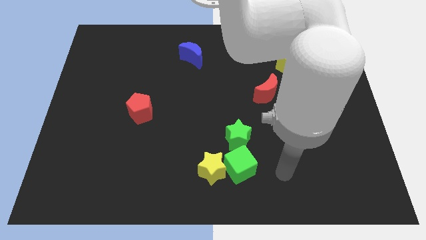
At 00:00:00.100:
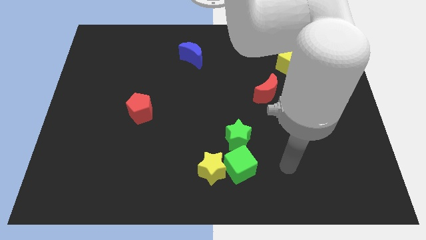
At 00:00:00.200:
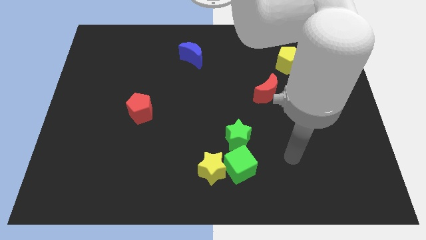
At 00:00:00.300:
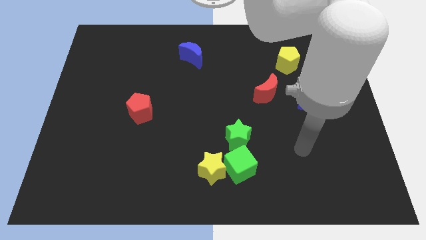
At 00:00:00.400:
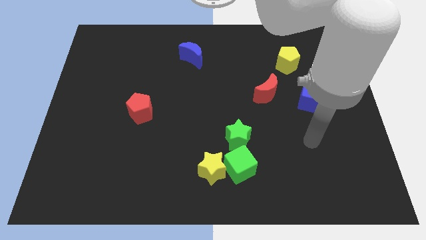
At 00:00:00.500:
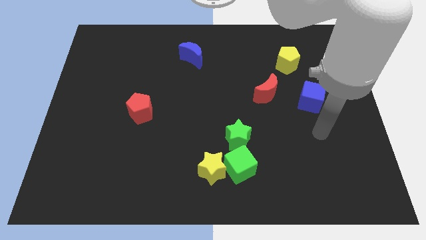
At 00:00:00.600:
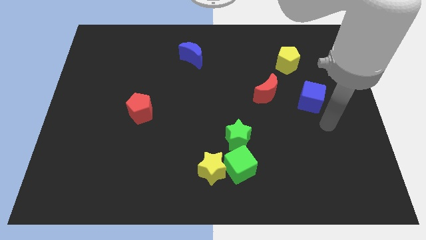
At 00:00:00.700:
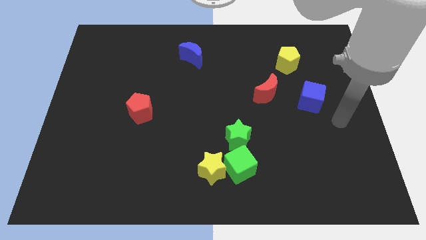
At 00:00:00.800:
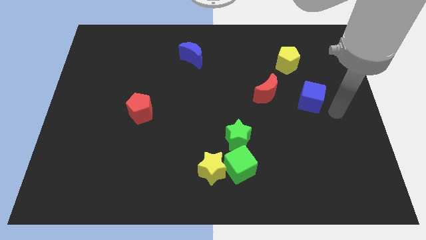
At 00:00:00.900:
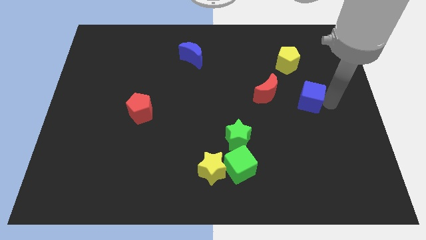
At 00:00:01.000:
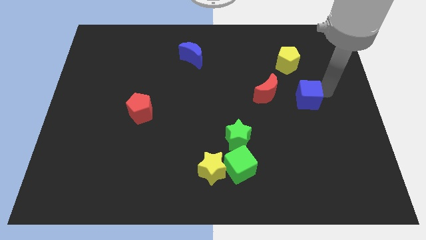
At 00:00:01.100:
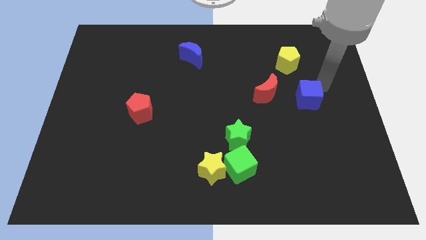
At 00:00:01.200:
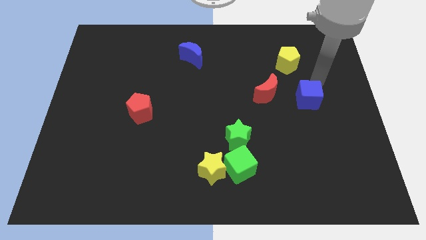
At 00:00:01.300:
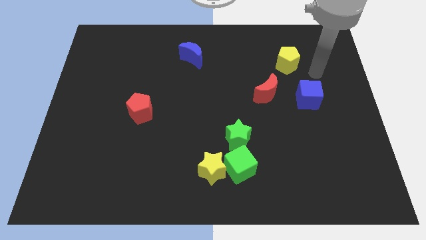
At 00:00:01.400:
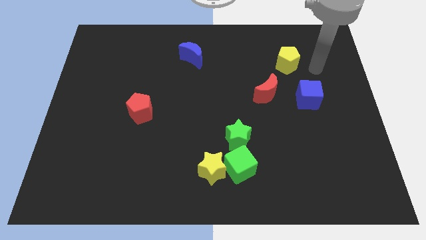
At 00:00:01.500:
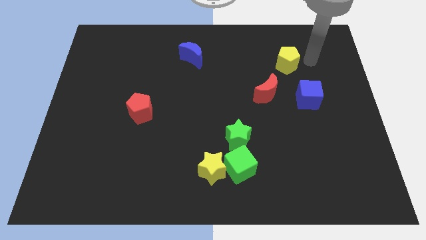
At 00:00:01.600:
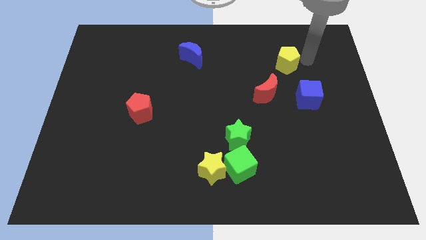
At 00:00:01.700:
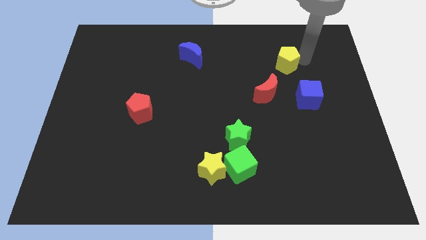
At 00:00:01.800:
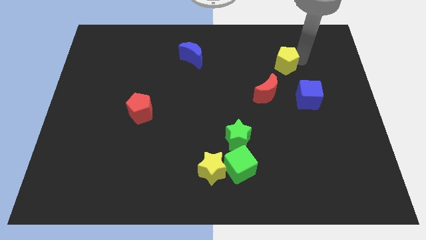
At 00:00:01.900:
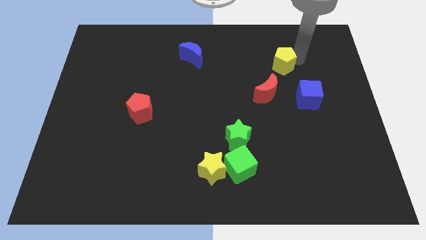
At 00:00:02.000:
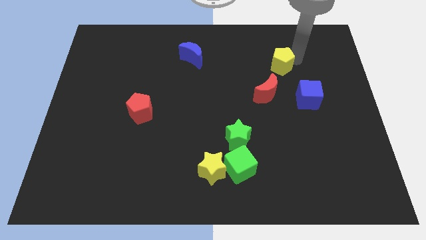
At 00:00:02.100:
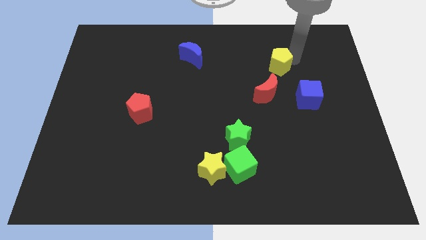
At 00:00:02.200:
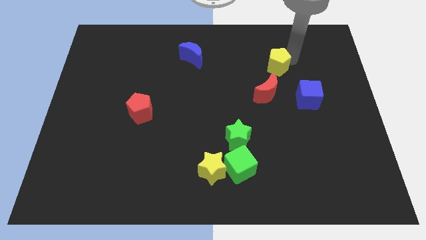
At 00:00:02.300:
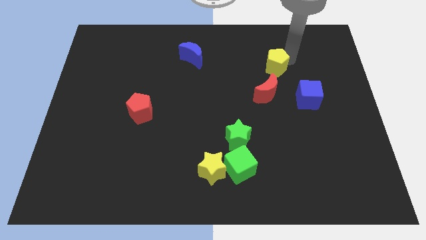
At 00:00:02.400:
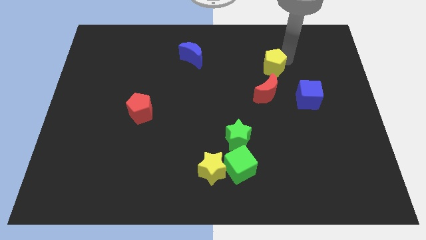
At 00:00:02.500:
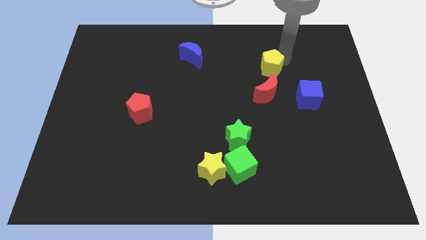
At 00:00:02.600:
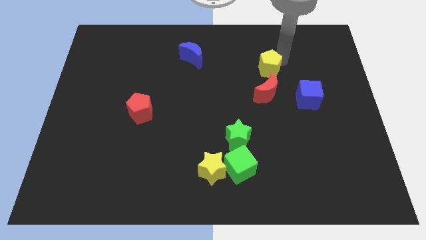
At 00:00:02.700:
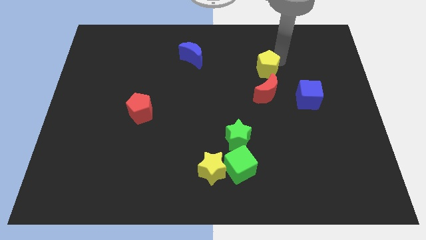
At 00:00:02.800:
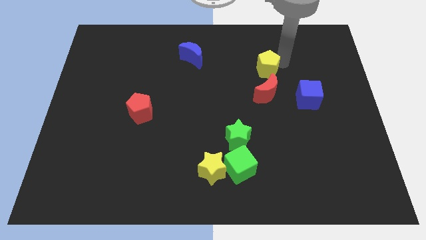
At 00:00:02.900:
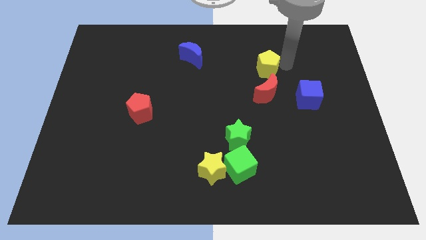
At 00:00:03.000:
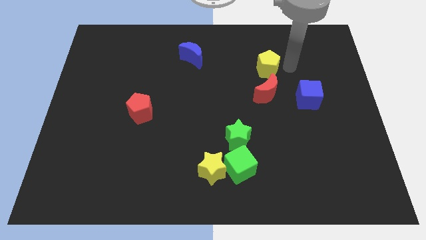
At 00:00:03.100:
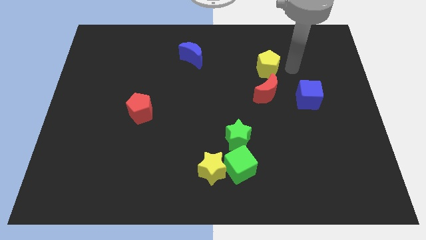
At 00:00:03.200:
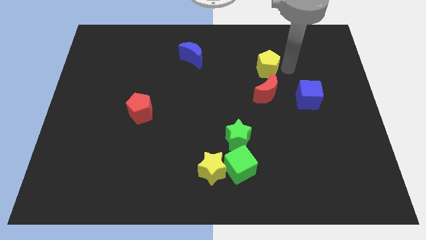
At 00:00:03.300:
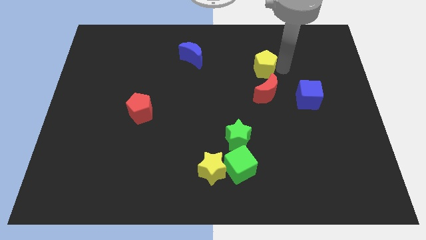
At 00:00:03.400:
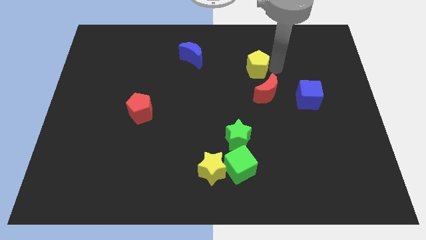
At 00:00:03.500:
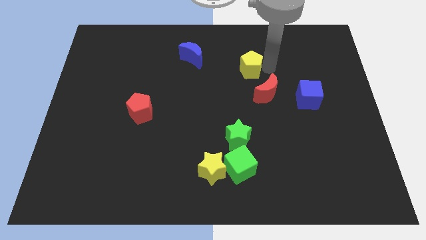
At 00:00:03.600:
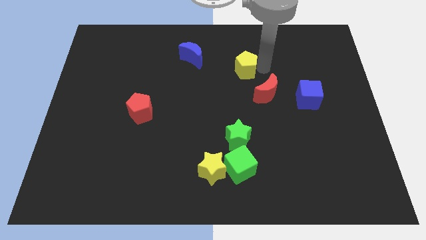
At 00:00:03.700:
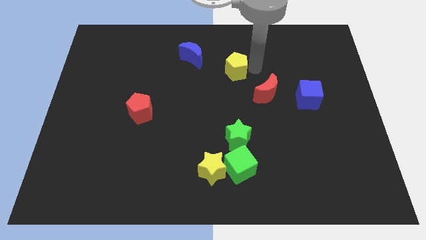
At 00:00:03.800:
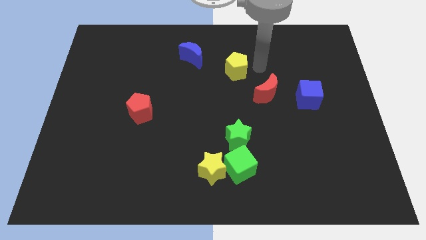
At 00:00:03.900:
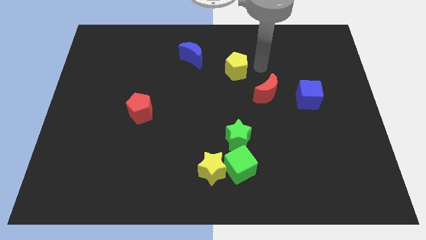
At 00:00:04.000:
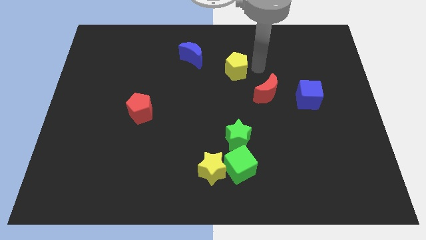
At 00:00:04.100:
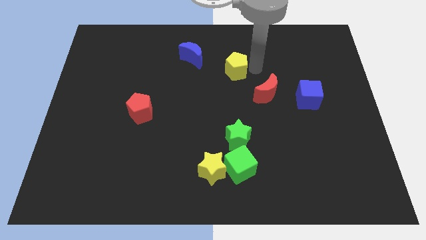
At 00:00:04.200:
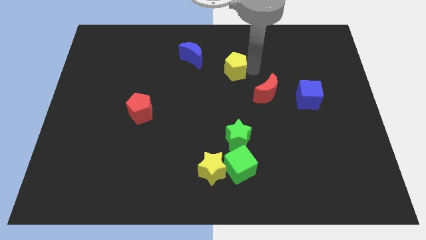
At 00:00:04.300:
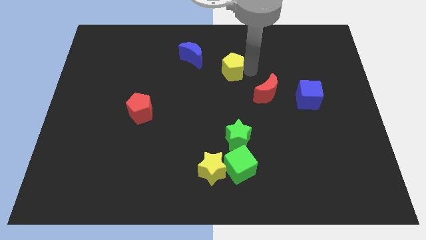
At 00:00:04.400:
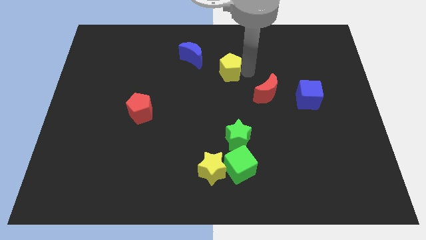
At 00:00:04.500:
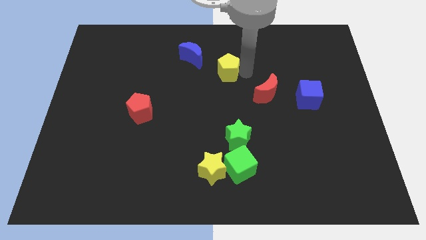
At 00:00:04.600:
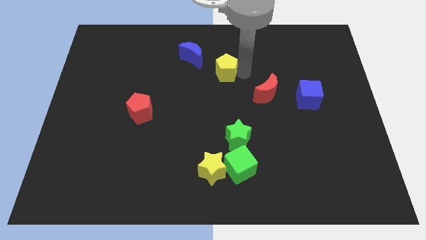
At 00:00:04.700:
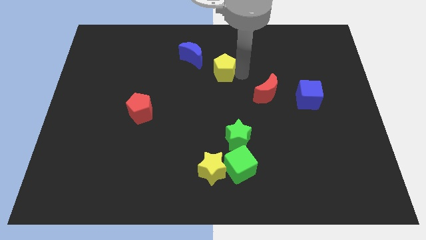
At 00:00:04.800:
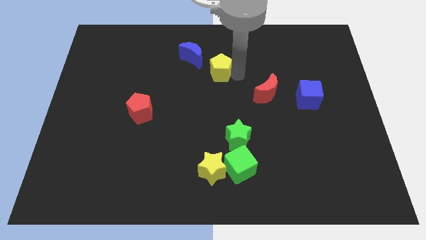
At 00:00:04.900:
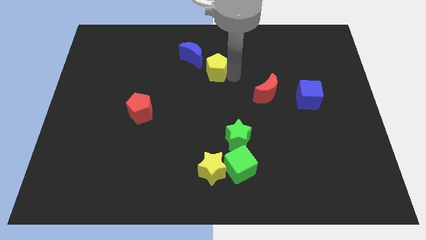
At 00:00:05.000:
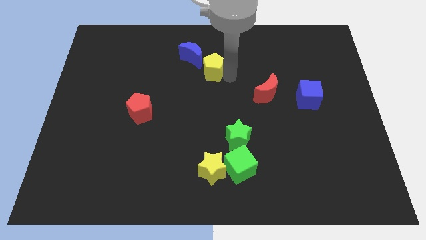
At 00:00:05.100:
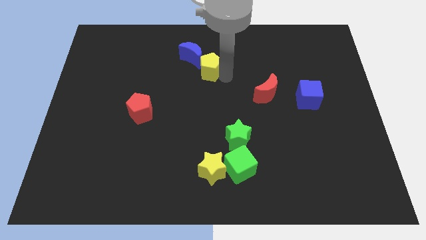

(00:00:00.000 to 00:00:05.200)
move the yellow pentagon left

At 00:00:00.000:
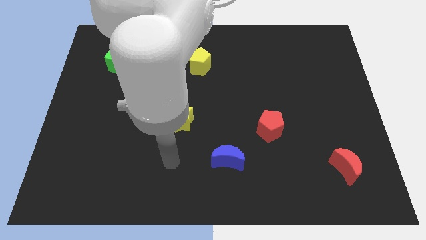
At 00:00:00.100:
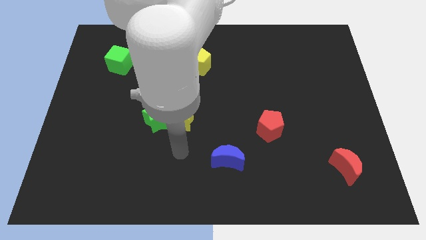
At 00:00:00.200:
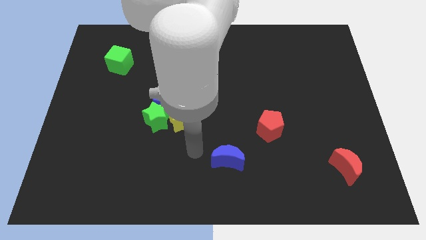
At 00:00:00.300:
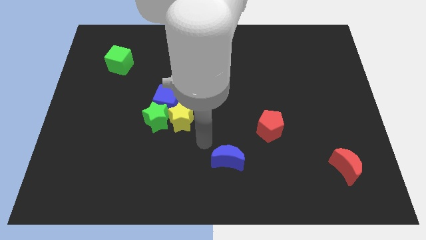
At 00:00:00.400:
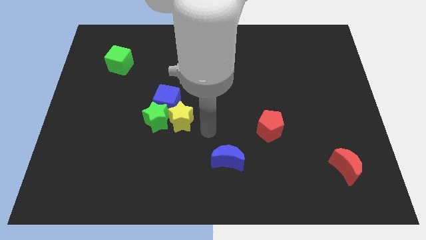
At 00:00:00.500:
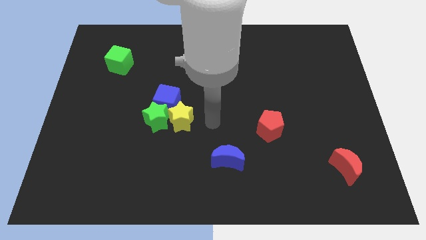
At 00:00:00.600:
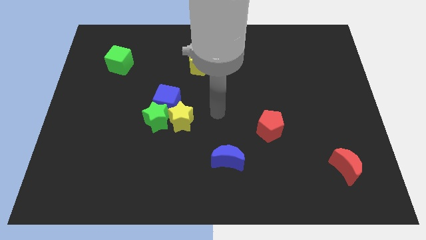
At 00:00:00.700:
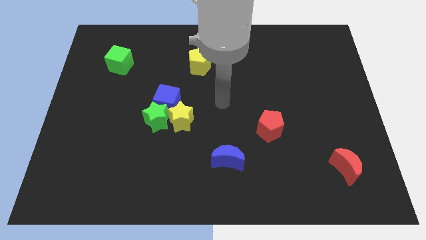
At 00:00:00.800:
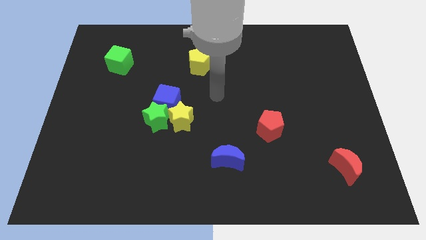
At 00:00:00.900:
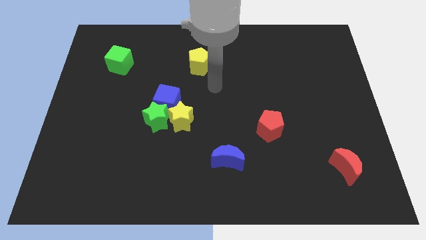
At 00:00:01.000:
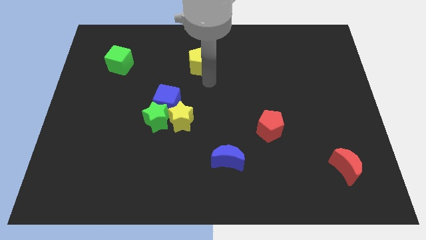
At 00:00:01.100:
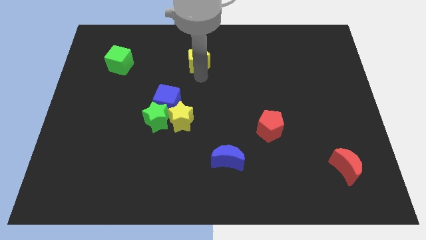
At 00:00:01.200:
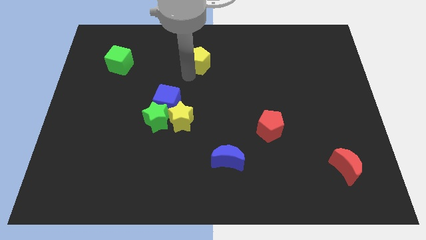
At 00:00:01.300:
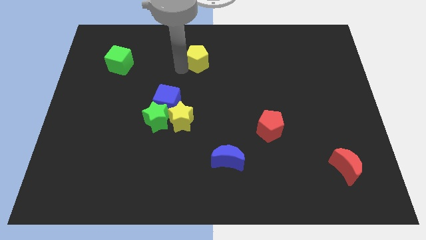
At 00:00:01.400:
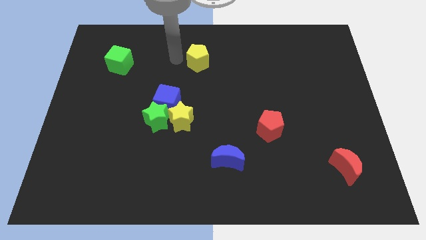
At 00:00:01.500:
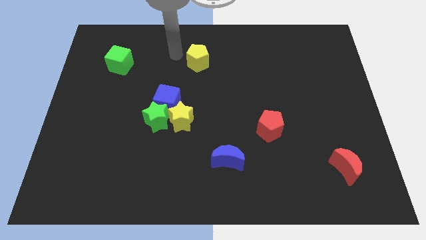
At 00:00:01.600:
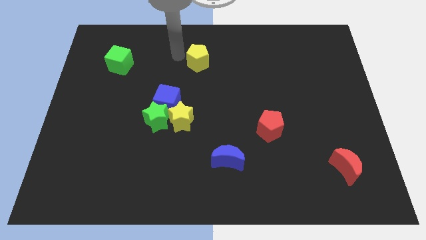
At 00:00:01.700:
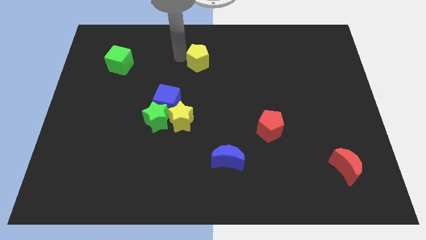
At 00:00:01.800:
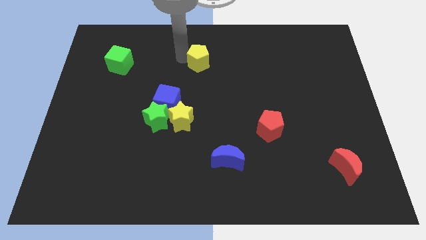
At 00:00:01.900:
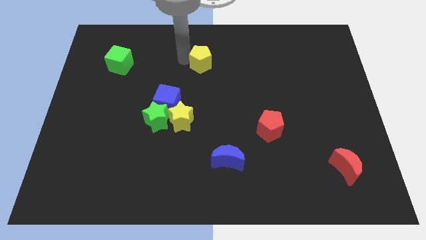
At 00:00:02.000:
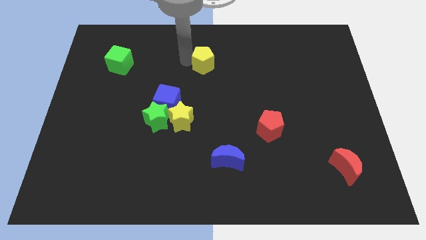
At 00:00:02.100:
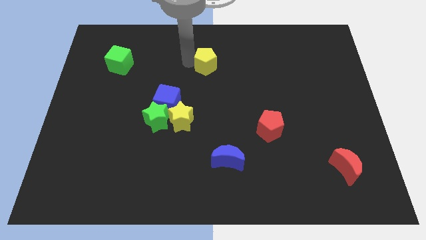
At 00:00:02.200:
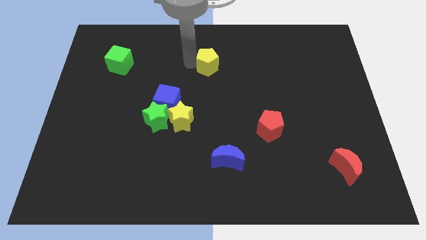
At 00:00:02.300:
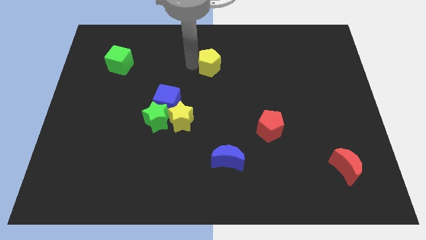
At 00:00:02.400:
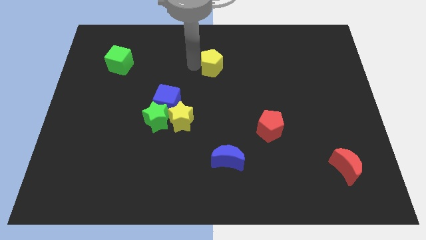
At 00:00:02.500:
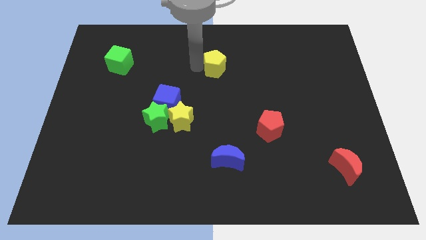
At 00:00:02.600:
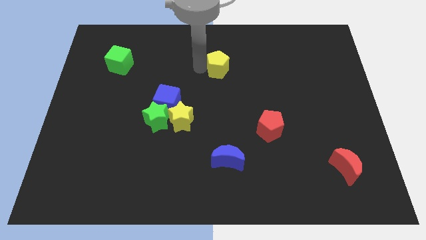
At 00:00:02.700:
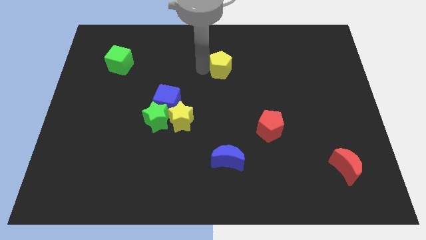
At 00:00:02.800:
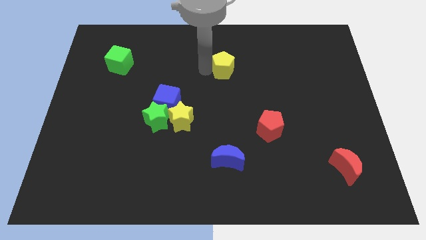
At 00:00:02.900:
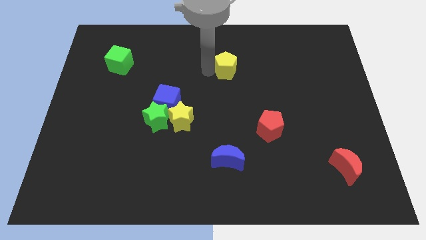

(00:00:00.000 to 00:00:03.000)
slightly push the yellow pentagon to the right

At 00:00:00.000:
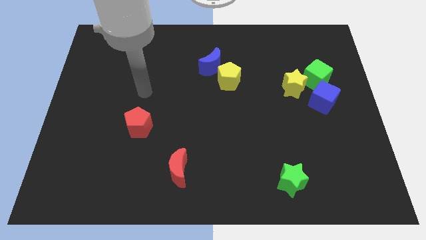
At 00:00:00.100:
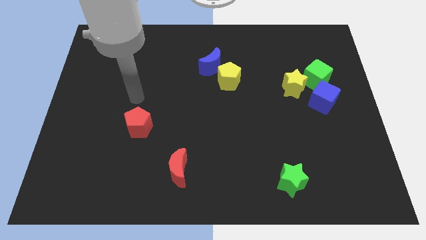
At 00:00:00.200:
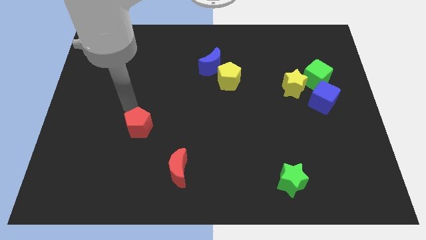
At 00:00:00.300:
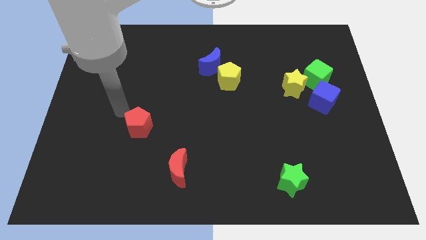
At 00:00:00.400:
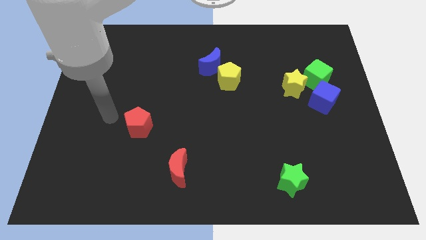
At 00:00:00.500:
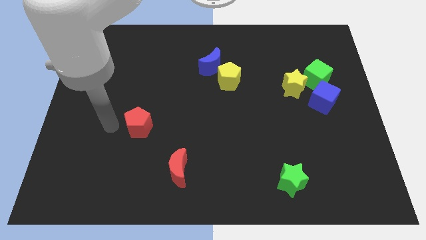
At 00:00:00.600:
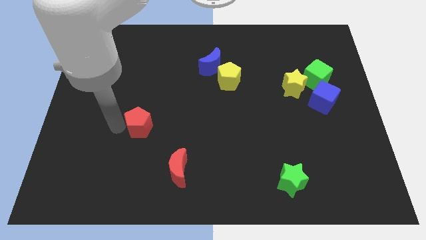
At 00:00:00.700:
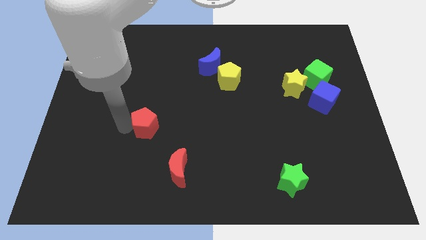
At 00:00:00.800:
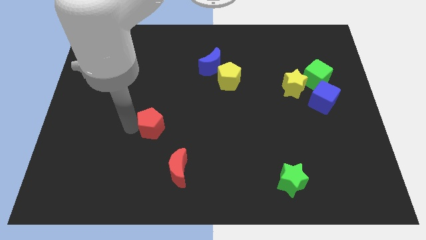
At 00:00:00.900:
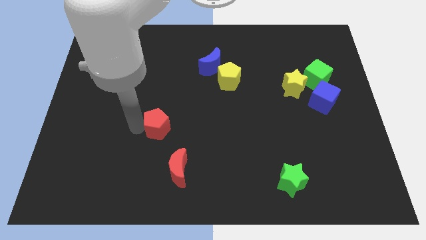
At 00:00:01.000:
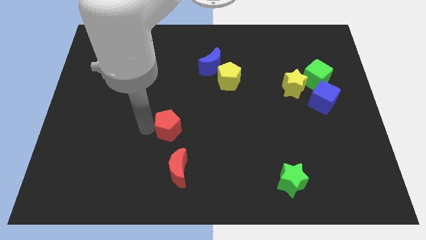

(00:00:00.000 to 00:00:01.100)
move the red pentagon slightly to the right
